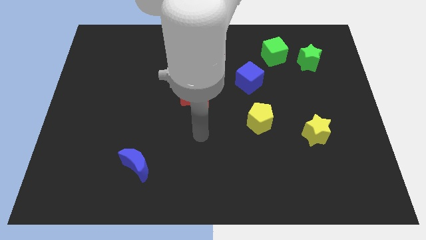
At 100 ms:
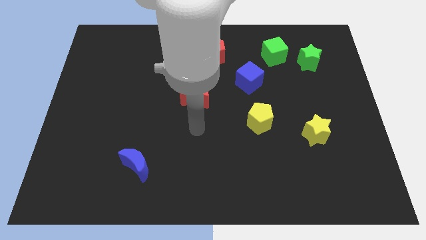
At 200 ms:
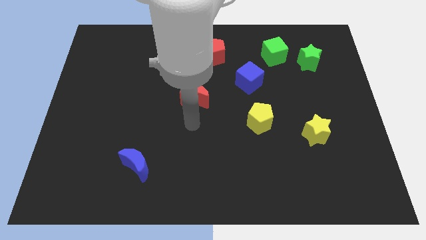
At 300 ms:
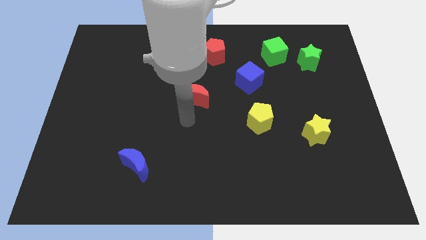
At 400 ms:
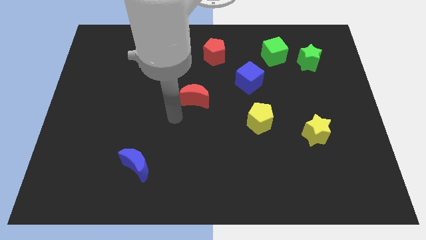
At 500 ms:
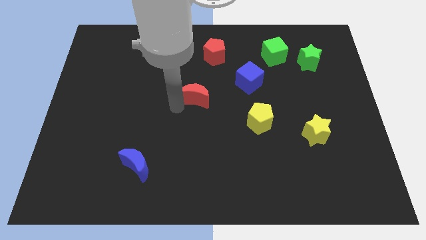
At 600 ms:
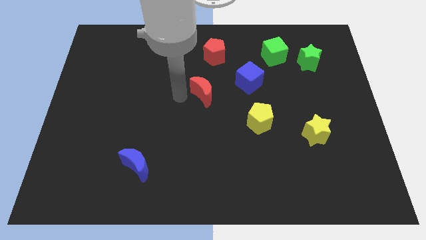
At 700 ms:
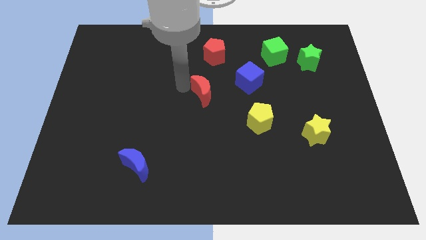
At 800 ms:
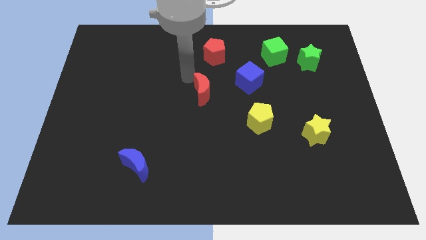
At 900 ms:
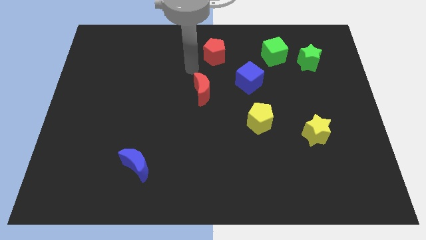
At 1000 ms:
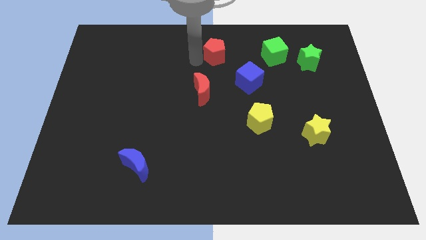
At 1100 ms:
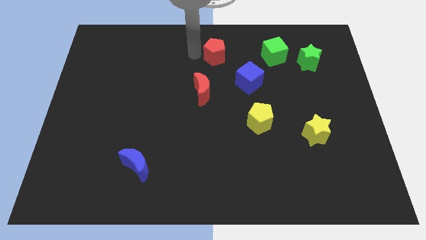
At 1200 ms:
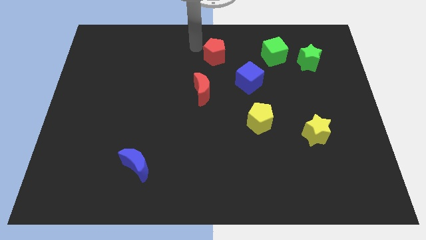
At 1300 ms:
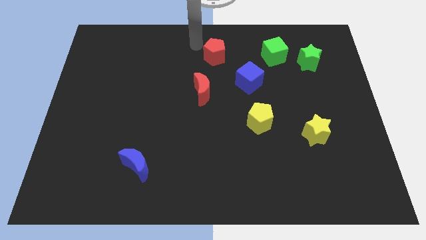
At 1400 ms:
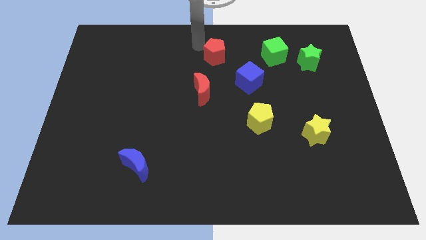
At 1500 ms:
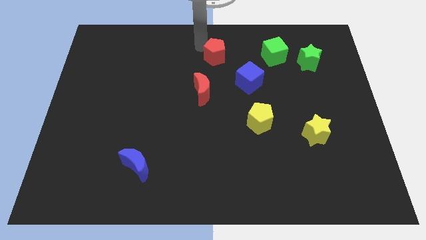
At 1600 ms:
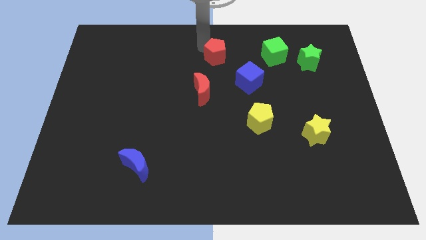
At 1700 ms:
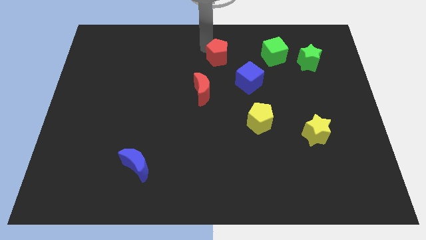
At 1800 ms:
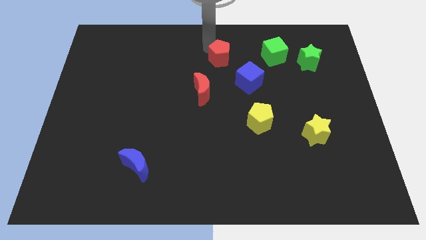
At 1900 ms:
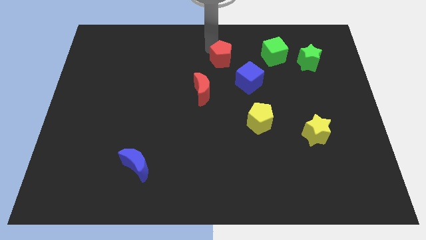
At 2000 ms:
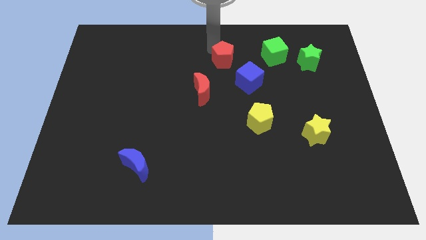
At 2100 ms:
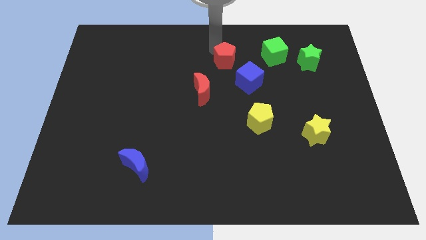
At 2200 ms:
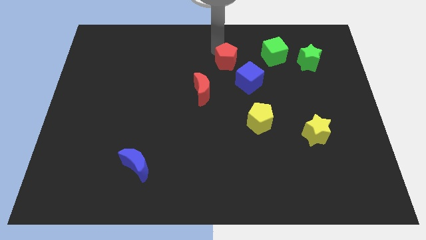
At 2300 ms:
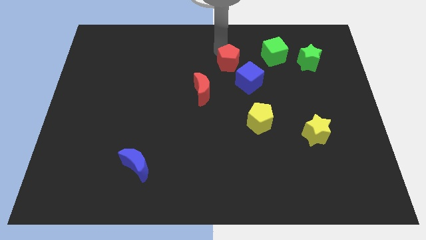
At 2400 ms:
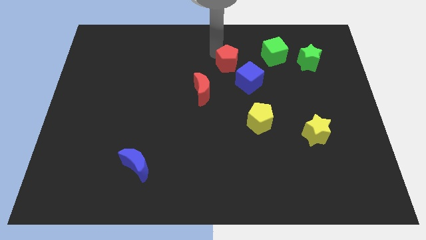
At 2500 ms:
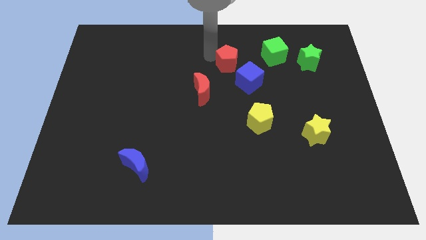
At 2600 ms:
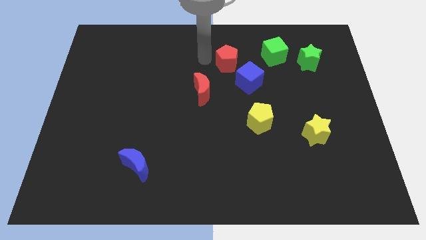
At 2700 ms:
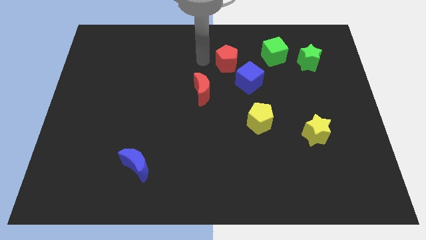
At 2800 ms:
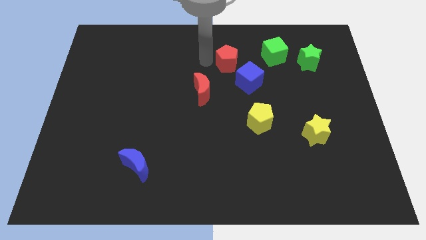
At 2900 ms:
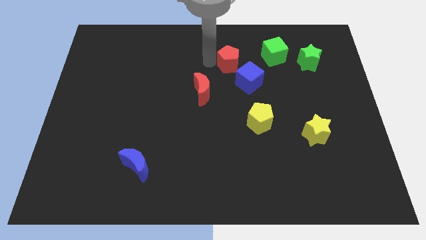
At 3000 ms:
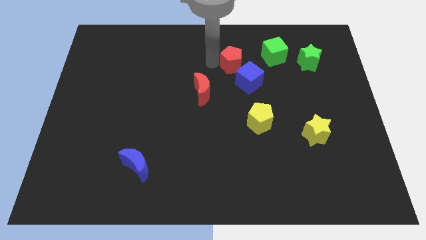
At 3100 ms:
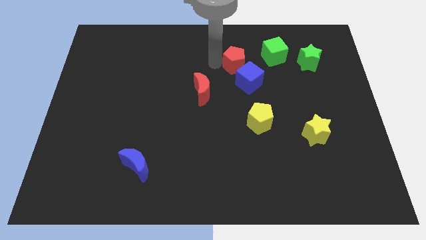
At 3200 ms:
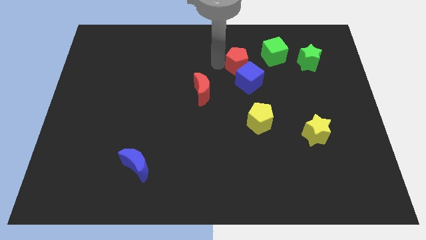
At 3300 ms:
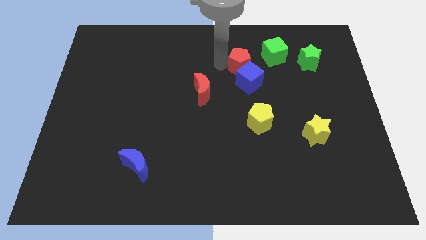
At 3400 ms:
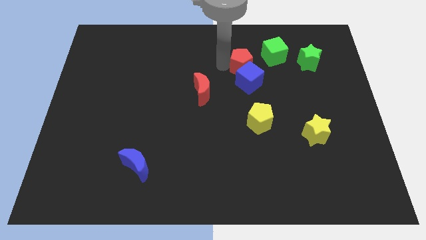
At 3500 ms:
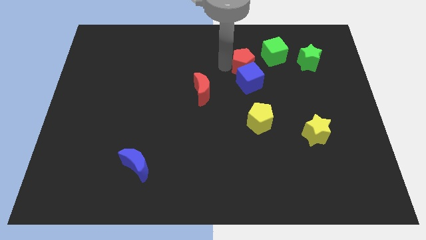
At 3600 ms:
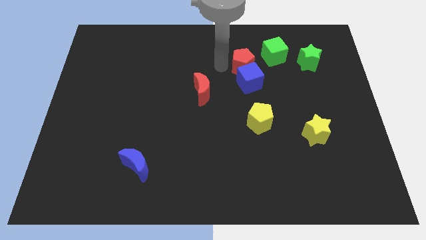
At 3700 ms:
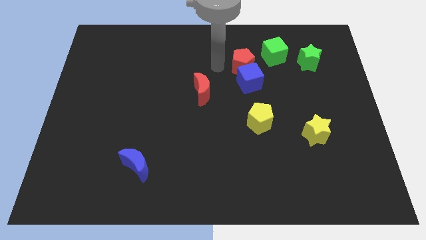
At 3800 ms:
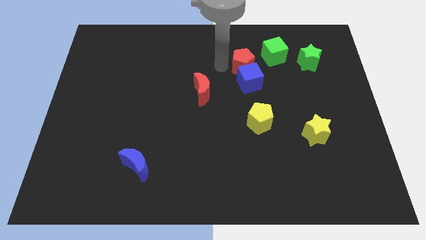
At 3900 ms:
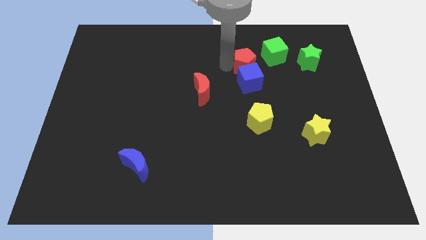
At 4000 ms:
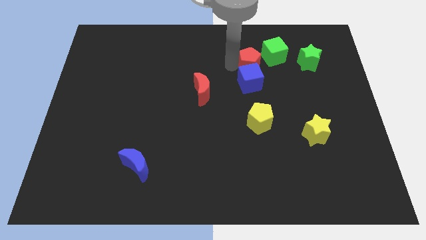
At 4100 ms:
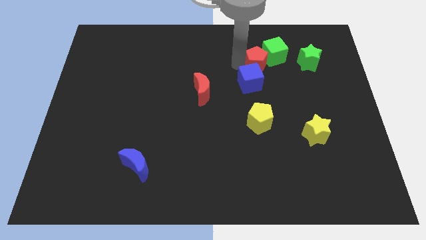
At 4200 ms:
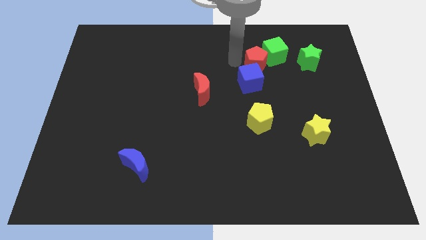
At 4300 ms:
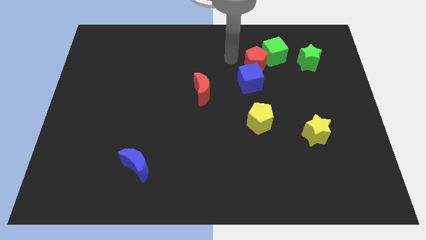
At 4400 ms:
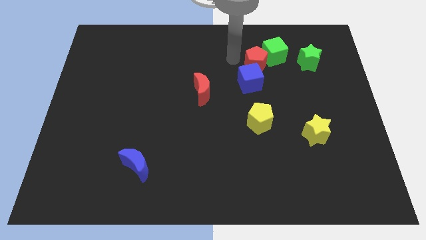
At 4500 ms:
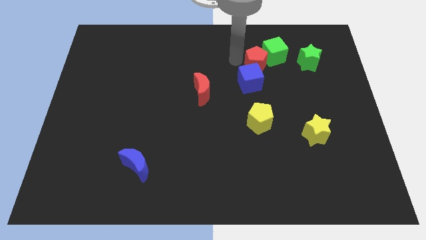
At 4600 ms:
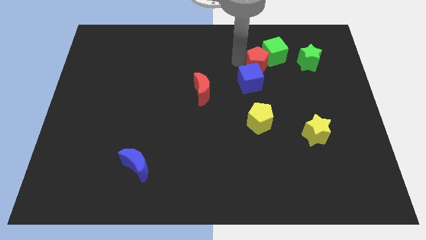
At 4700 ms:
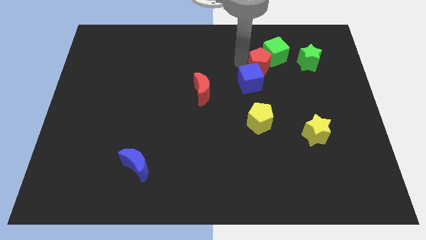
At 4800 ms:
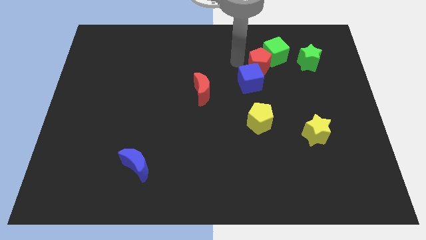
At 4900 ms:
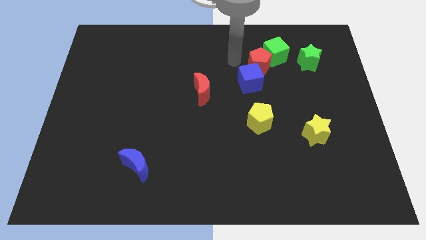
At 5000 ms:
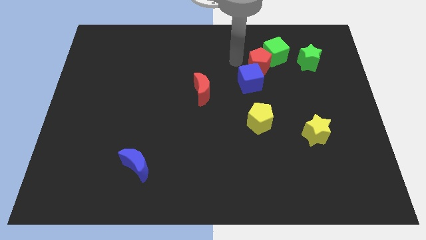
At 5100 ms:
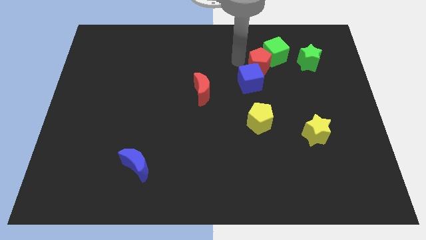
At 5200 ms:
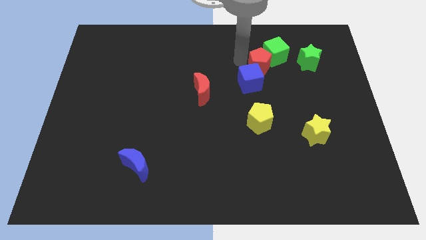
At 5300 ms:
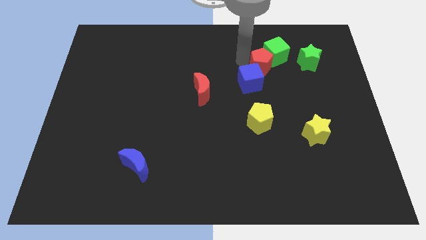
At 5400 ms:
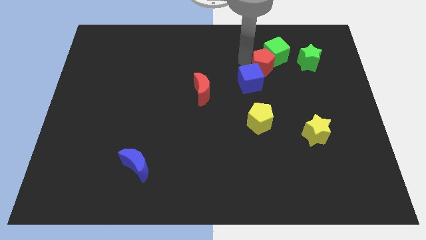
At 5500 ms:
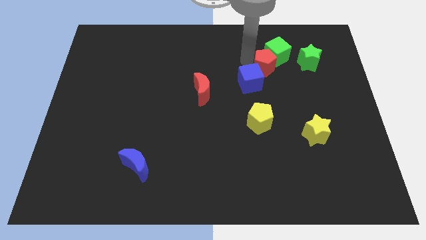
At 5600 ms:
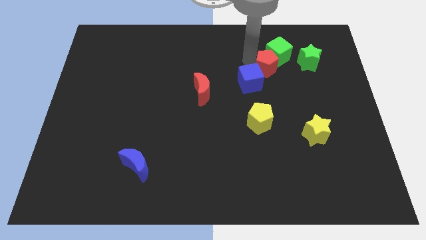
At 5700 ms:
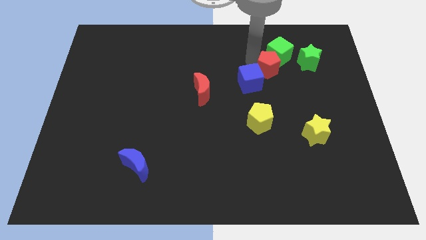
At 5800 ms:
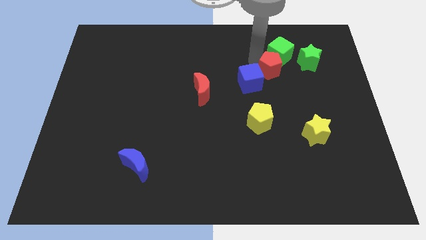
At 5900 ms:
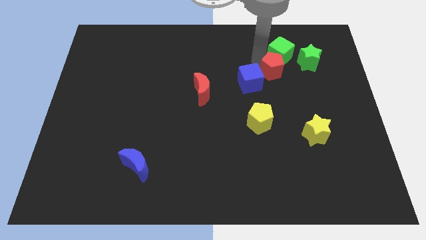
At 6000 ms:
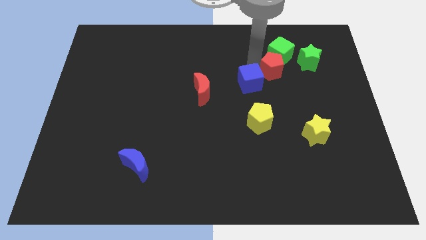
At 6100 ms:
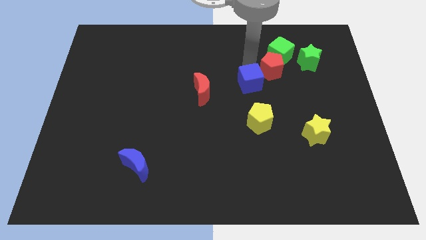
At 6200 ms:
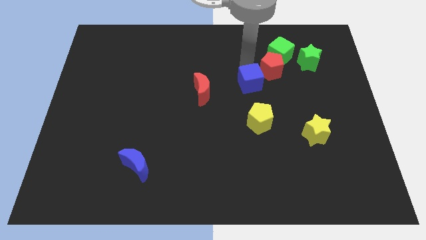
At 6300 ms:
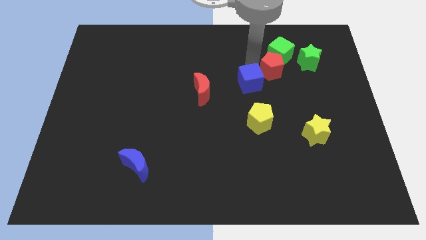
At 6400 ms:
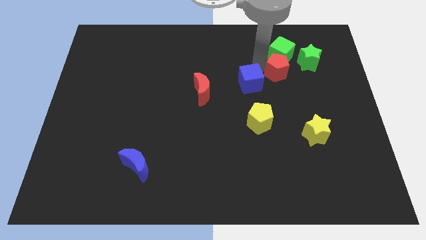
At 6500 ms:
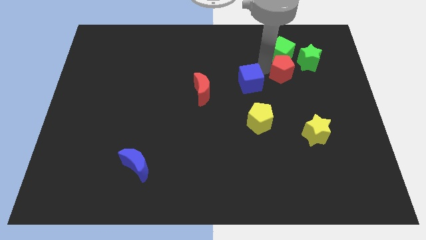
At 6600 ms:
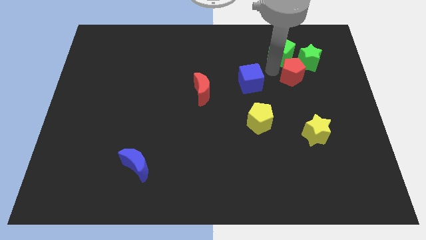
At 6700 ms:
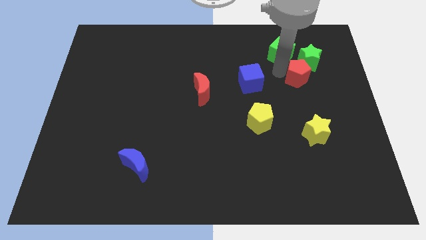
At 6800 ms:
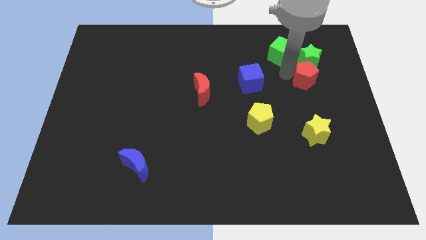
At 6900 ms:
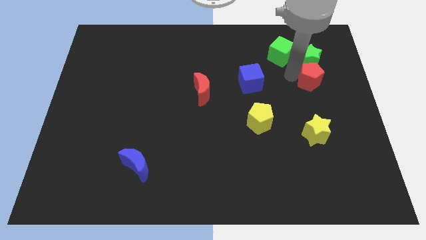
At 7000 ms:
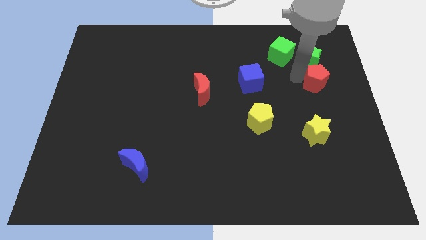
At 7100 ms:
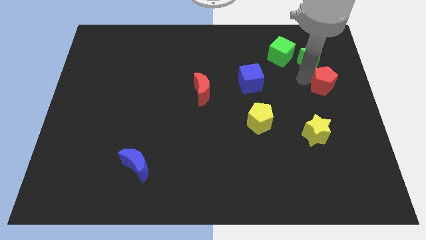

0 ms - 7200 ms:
push the red pentagon to the right side
